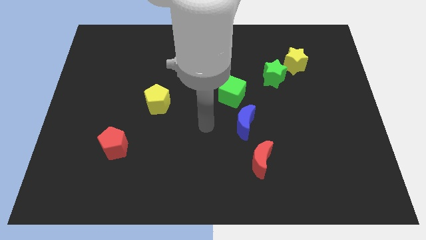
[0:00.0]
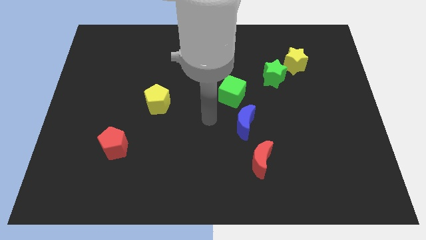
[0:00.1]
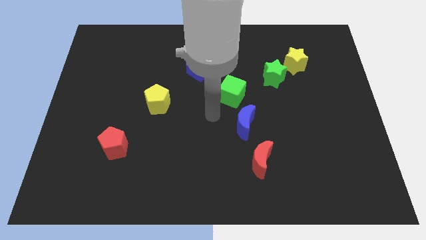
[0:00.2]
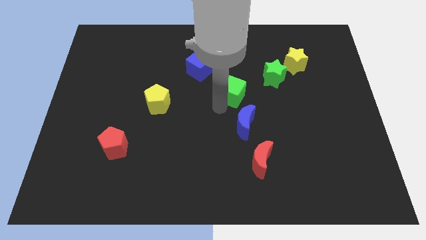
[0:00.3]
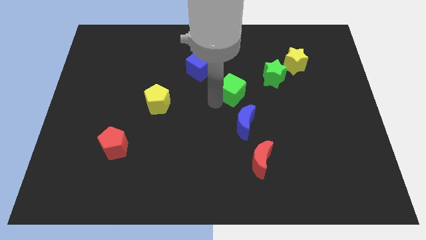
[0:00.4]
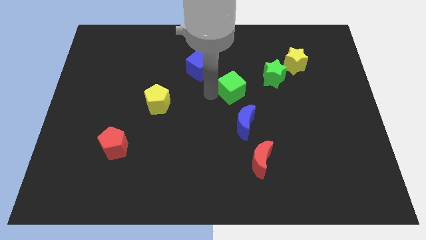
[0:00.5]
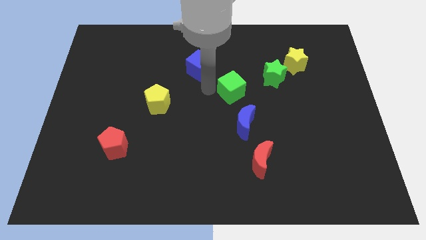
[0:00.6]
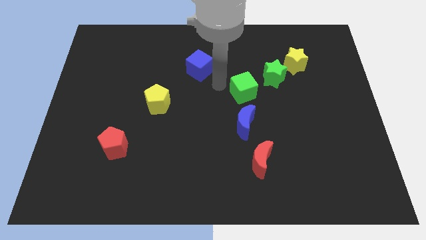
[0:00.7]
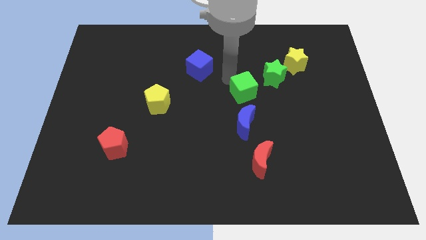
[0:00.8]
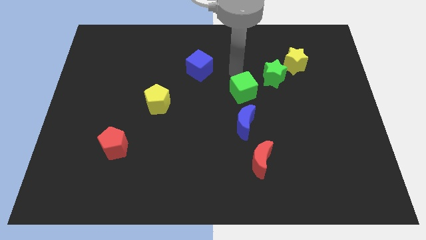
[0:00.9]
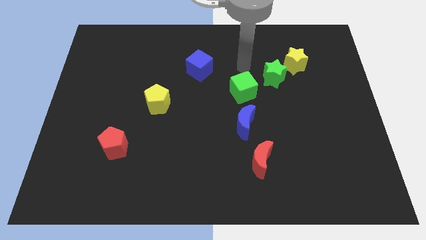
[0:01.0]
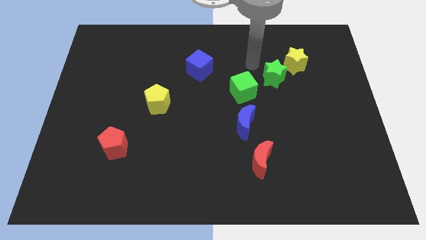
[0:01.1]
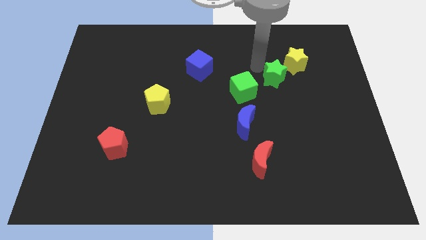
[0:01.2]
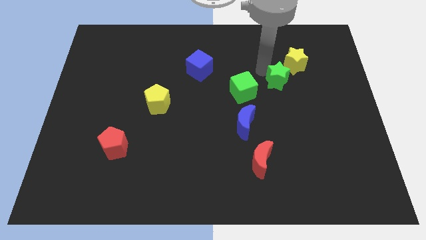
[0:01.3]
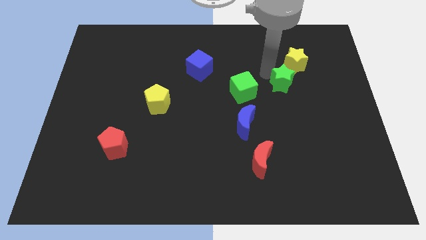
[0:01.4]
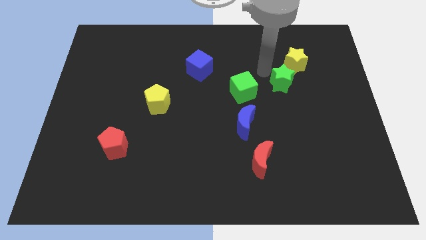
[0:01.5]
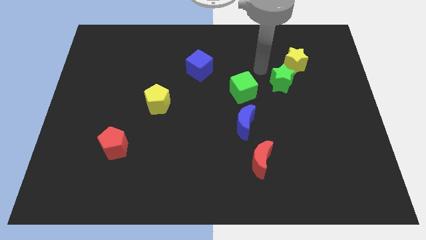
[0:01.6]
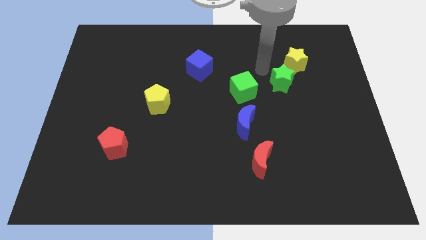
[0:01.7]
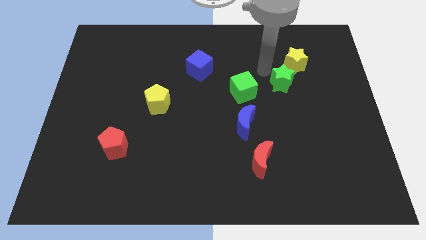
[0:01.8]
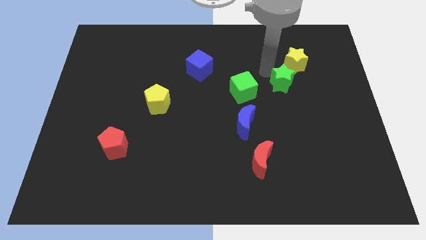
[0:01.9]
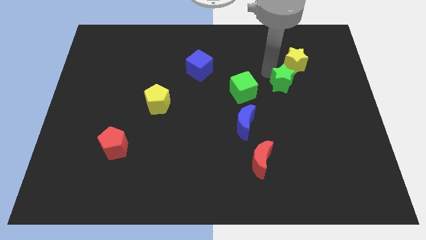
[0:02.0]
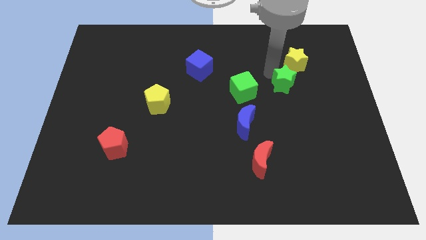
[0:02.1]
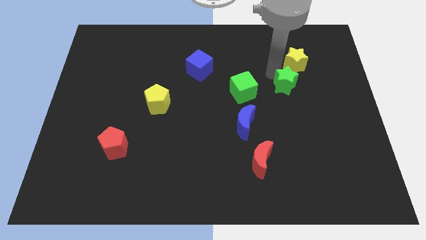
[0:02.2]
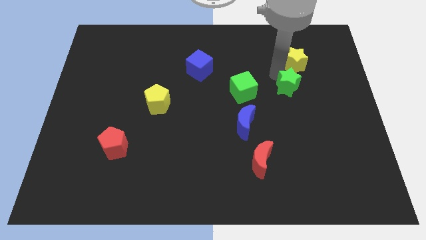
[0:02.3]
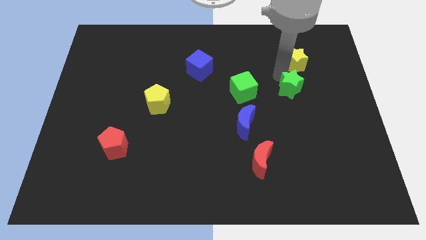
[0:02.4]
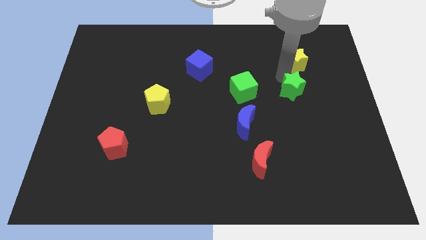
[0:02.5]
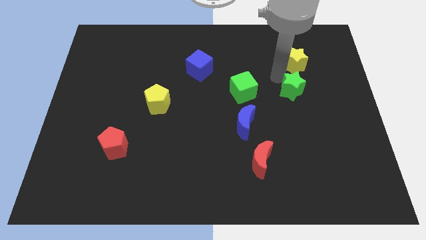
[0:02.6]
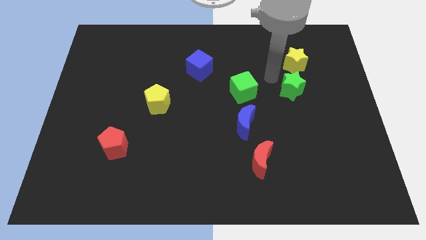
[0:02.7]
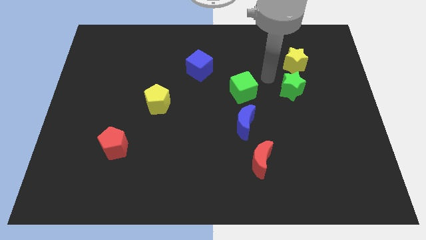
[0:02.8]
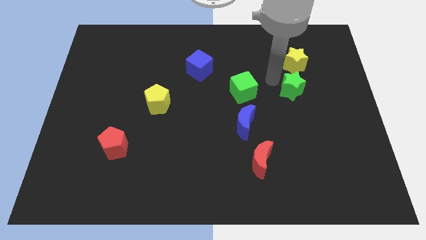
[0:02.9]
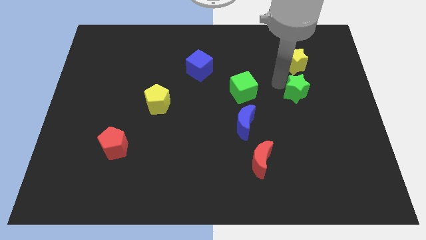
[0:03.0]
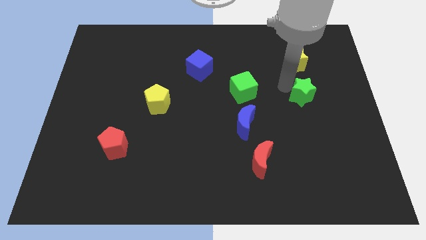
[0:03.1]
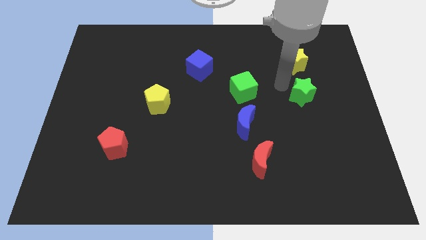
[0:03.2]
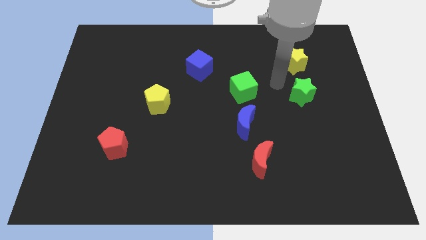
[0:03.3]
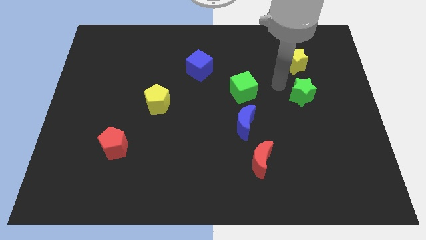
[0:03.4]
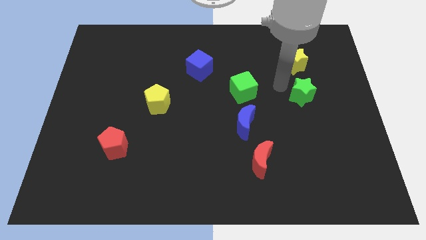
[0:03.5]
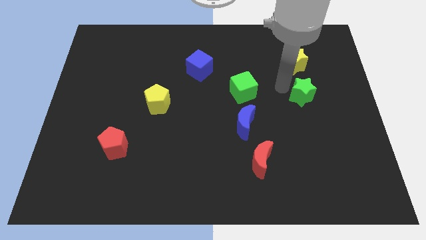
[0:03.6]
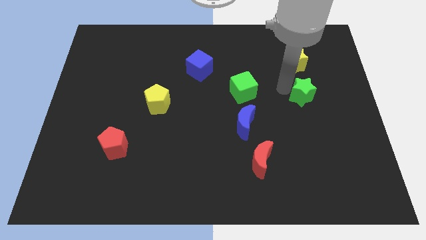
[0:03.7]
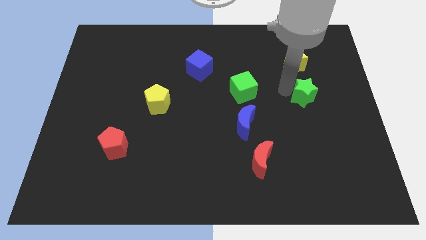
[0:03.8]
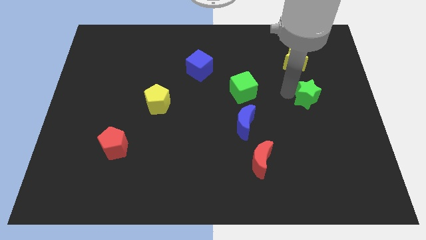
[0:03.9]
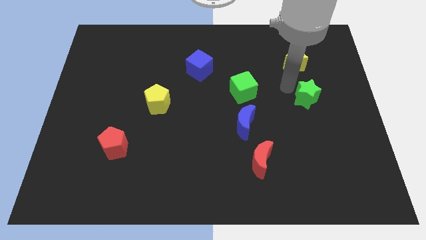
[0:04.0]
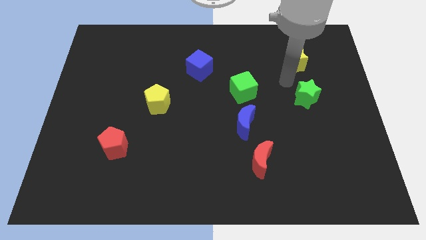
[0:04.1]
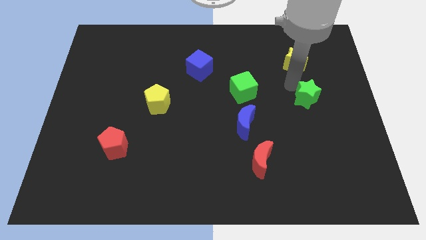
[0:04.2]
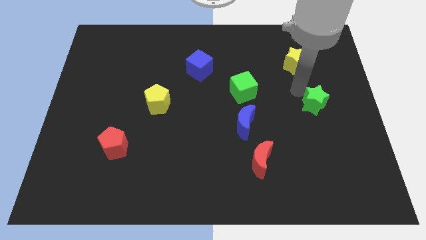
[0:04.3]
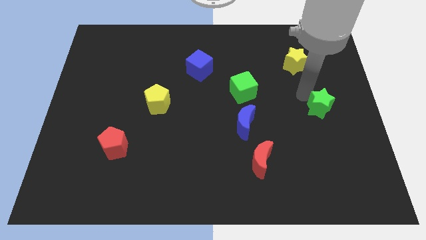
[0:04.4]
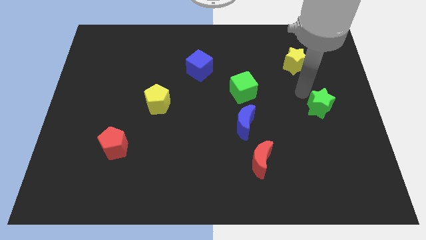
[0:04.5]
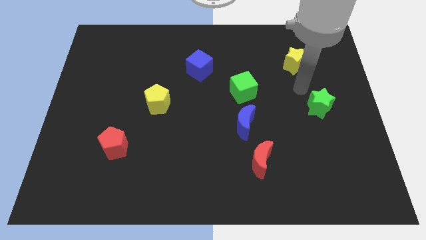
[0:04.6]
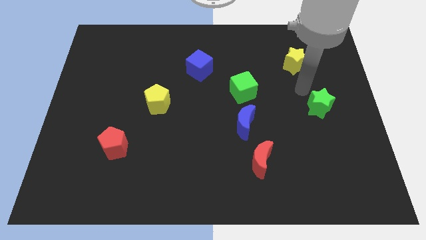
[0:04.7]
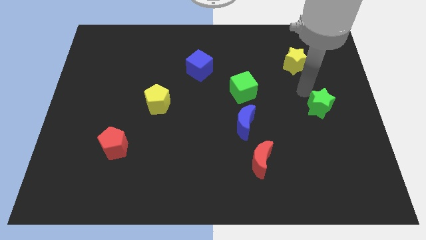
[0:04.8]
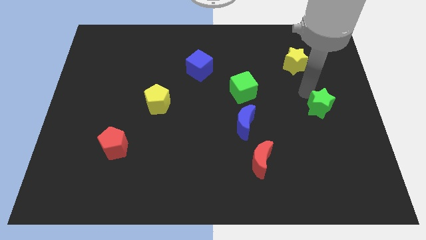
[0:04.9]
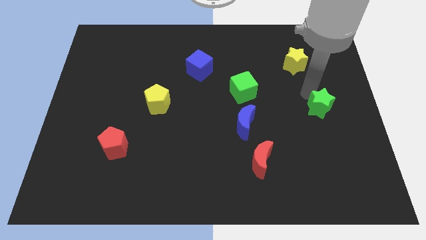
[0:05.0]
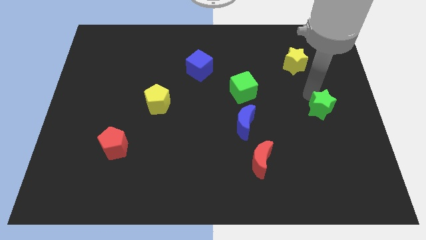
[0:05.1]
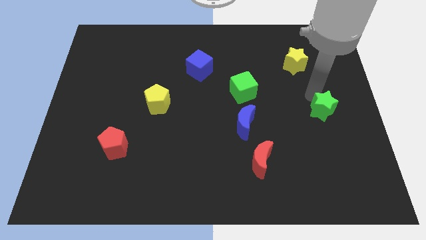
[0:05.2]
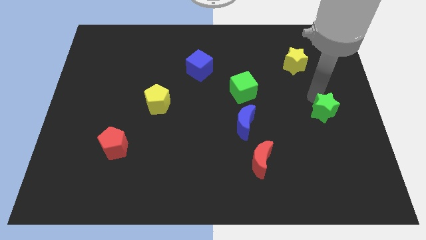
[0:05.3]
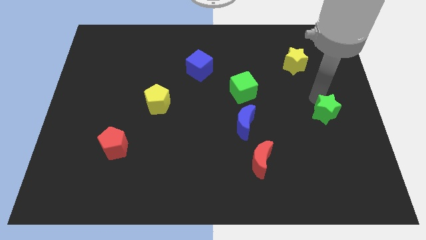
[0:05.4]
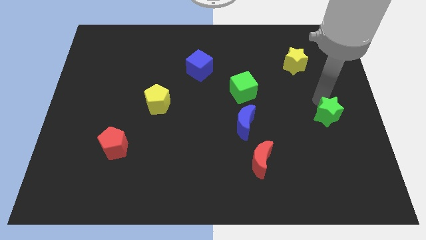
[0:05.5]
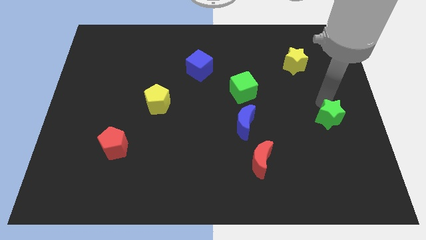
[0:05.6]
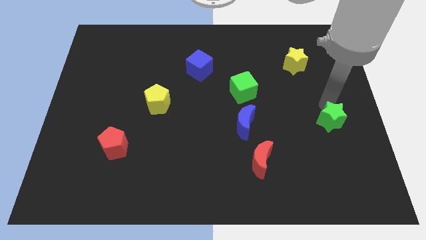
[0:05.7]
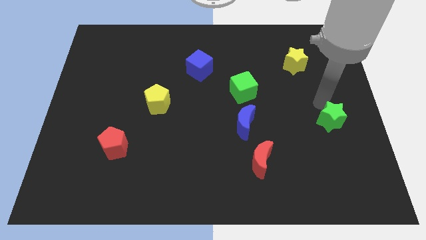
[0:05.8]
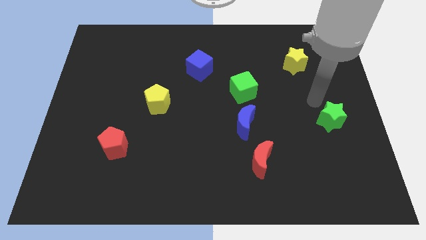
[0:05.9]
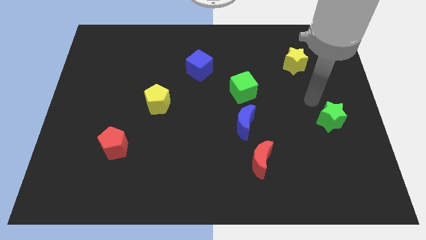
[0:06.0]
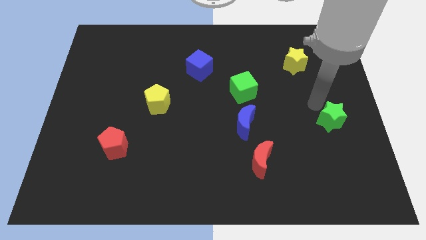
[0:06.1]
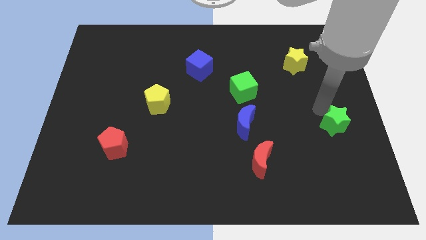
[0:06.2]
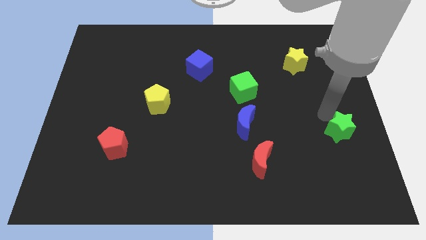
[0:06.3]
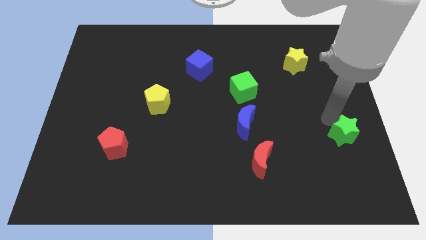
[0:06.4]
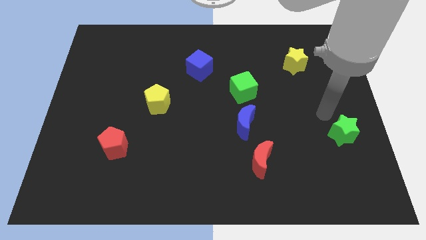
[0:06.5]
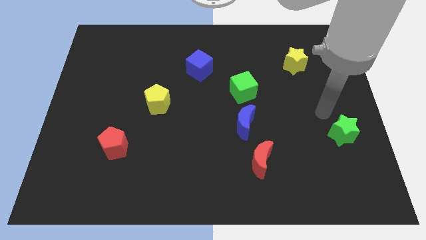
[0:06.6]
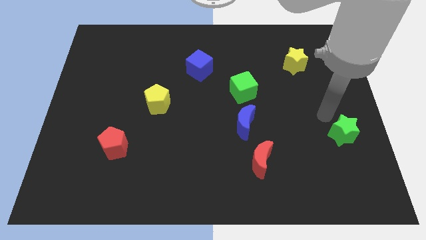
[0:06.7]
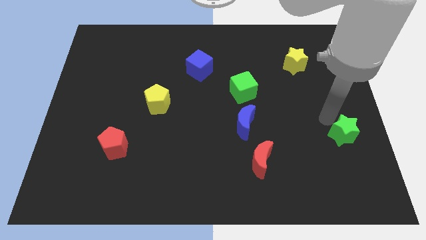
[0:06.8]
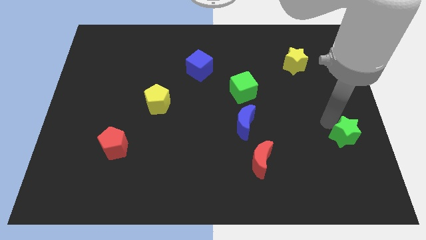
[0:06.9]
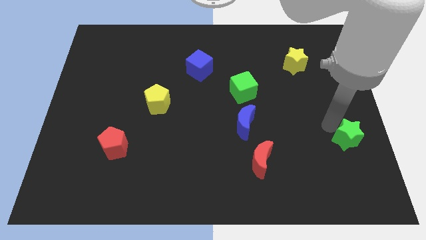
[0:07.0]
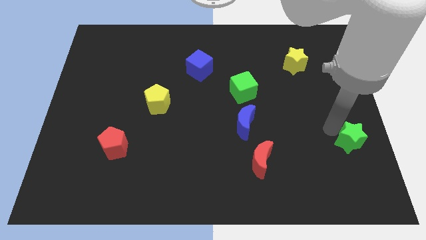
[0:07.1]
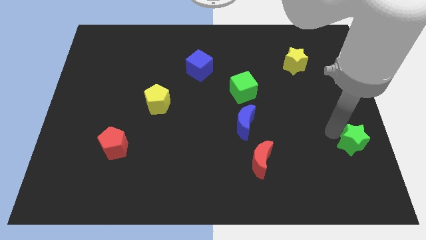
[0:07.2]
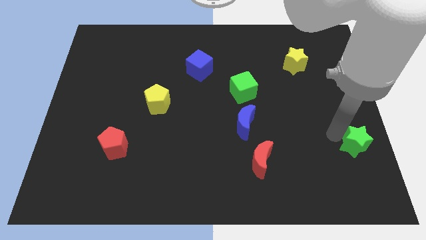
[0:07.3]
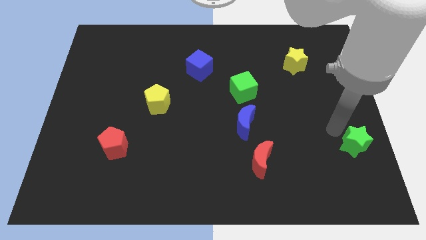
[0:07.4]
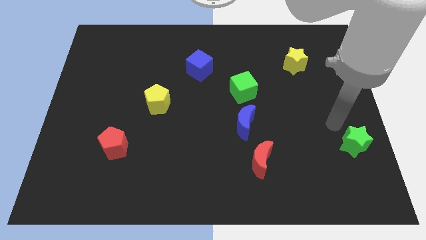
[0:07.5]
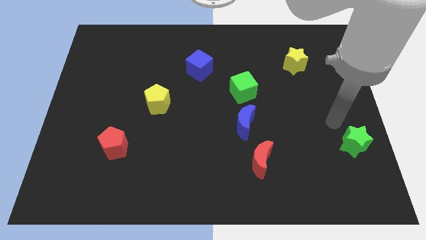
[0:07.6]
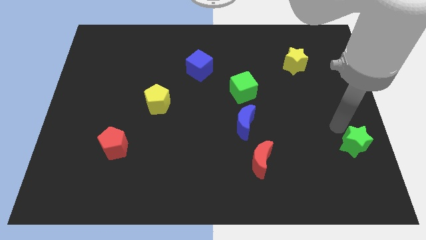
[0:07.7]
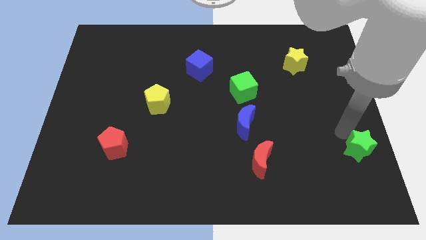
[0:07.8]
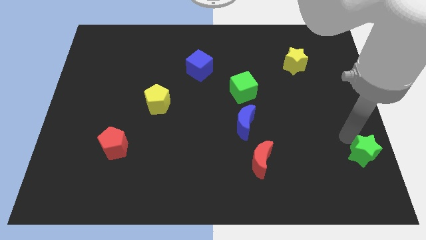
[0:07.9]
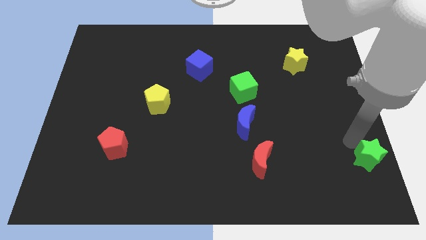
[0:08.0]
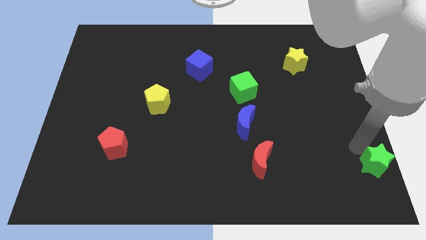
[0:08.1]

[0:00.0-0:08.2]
put the green star to the bottom right
